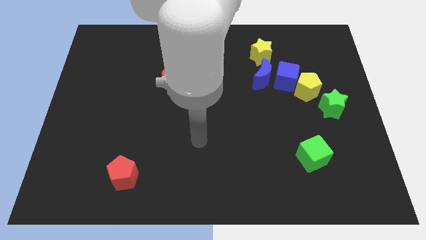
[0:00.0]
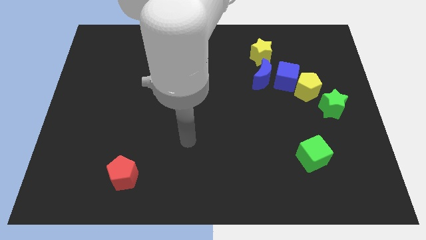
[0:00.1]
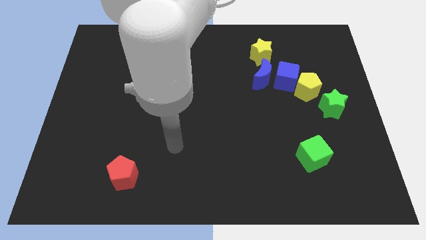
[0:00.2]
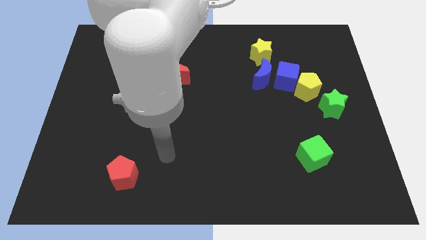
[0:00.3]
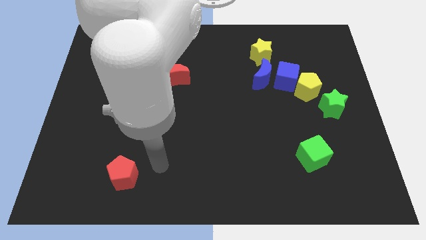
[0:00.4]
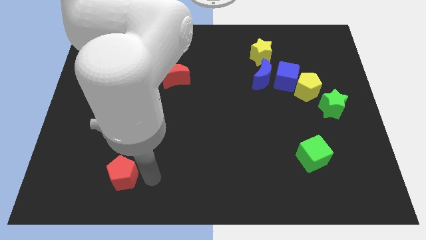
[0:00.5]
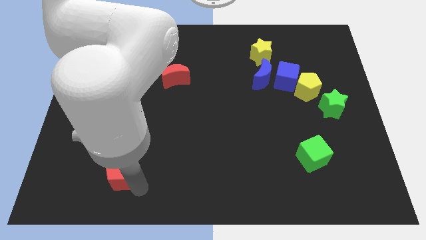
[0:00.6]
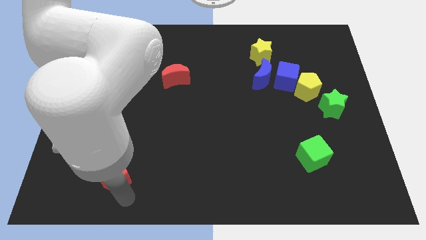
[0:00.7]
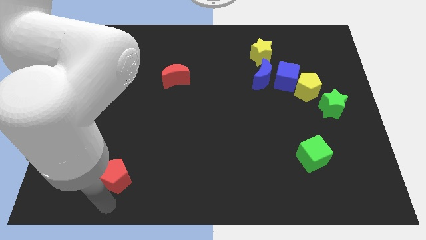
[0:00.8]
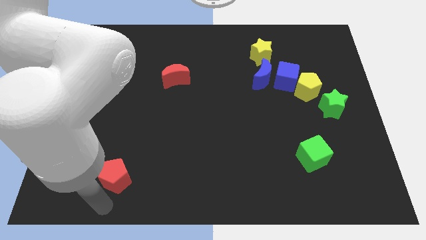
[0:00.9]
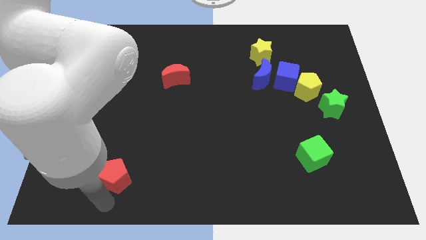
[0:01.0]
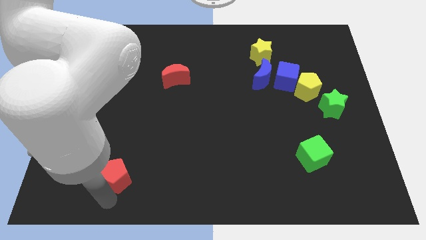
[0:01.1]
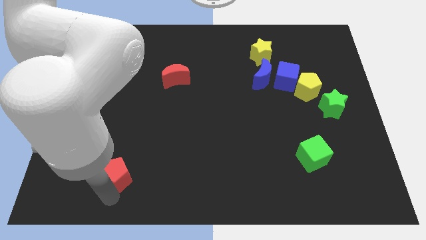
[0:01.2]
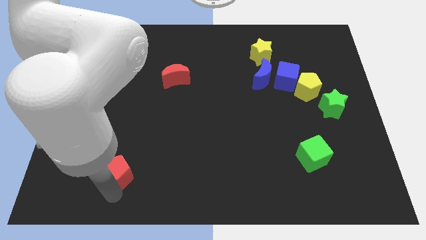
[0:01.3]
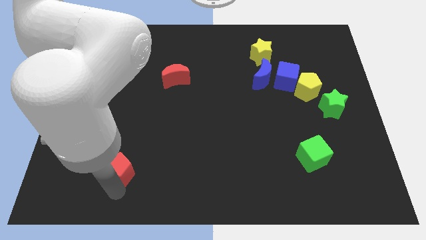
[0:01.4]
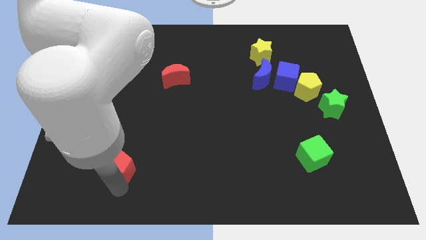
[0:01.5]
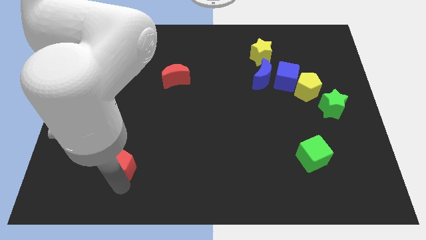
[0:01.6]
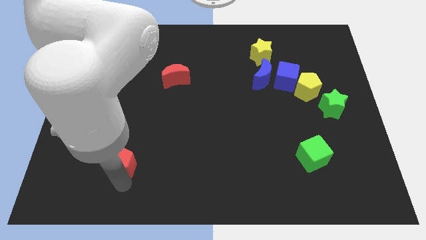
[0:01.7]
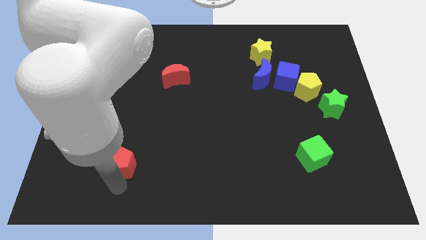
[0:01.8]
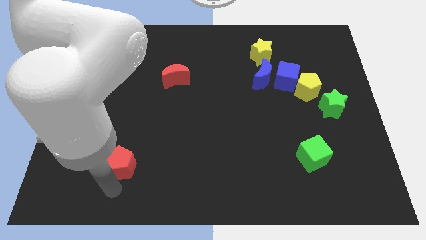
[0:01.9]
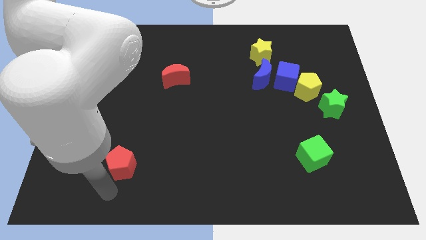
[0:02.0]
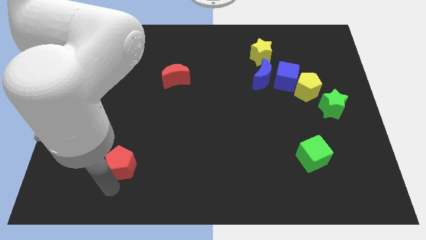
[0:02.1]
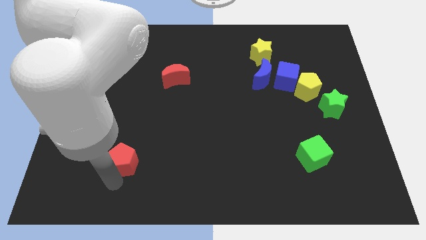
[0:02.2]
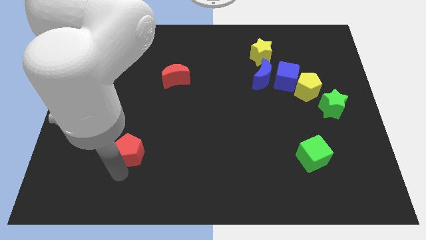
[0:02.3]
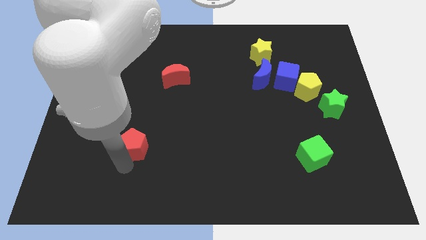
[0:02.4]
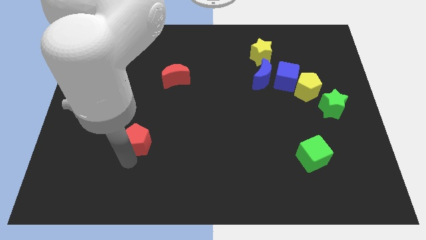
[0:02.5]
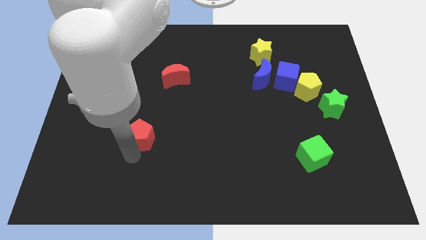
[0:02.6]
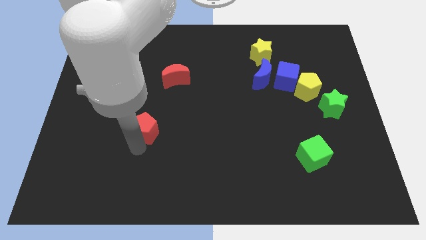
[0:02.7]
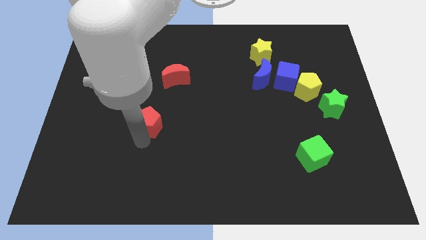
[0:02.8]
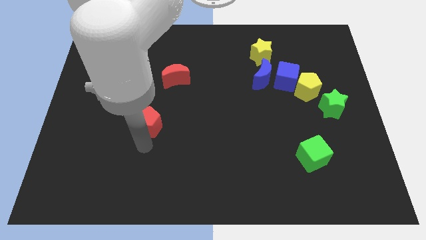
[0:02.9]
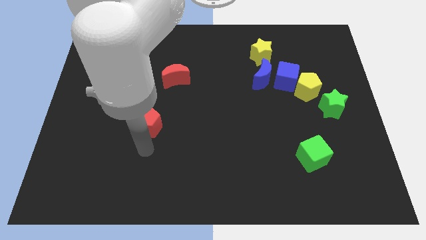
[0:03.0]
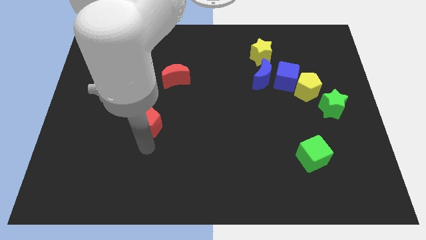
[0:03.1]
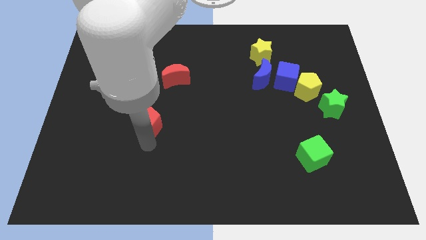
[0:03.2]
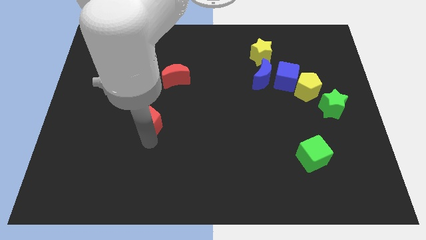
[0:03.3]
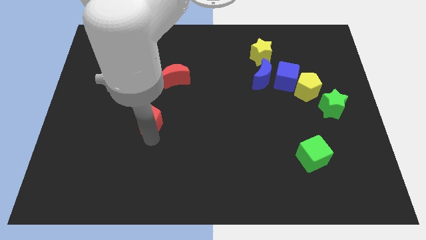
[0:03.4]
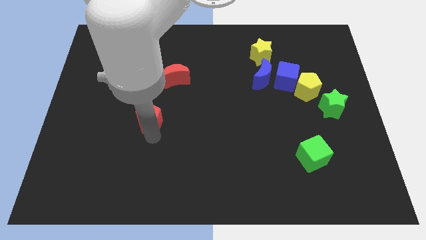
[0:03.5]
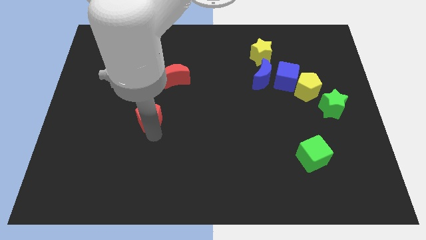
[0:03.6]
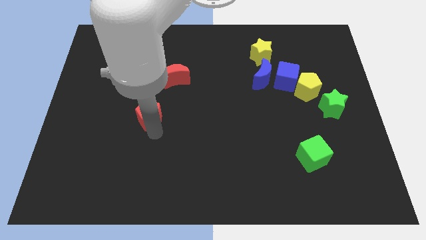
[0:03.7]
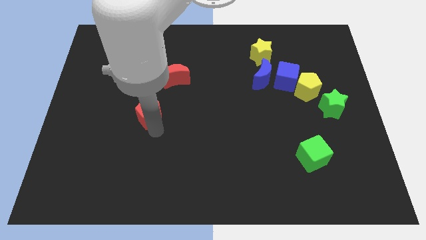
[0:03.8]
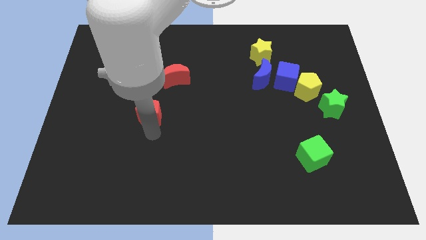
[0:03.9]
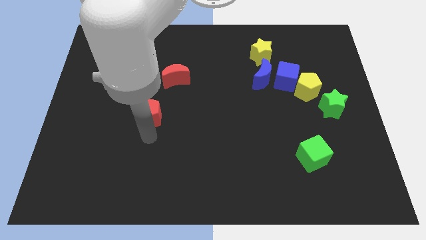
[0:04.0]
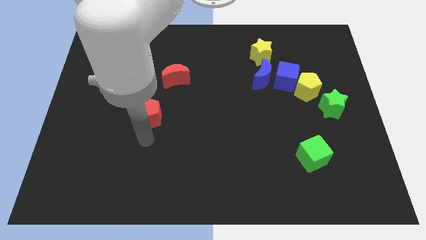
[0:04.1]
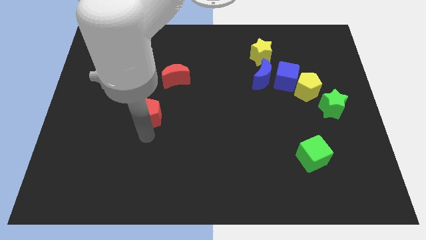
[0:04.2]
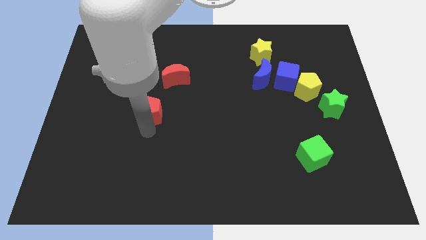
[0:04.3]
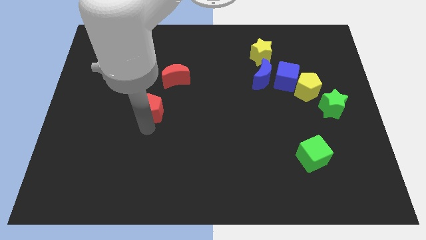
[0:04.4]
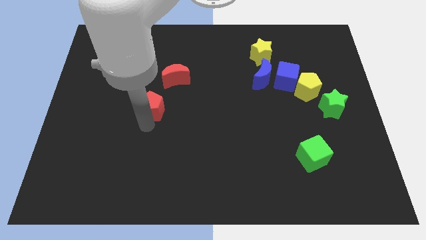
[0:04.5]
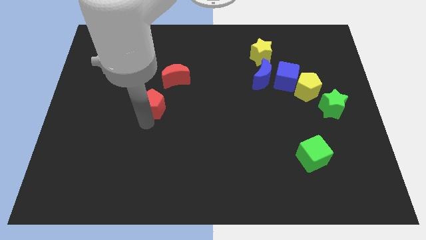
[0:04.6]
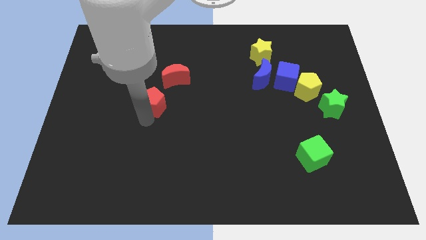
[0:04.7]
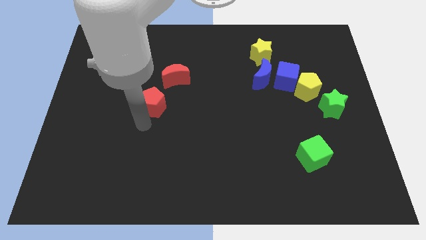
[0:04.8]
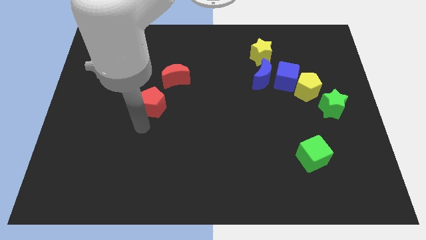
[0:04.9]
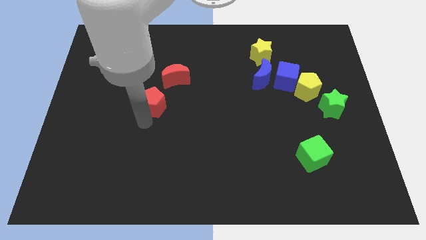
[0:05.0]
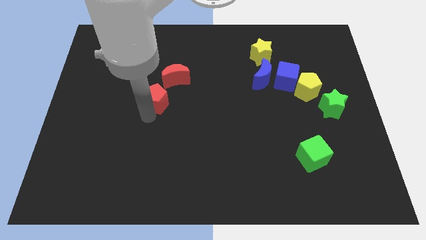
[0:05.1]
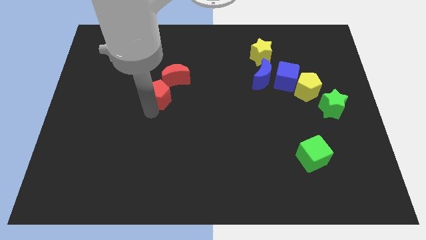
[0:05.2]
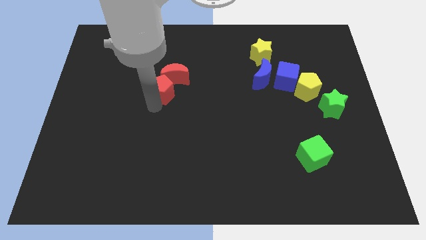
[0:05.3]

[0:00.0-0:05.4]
move the red pentagon close to the red moon

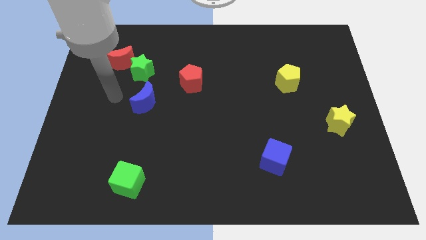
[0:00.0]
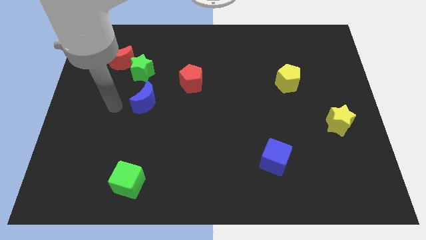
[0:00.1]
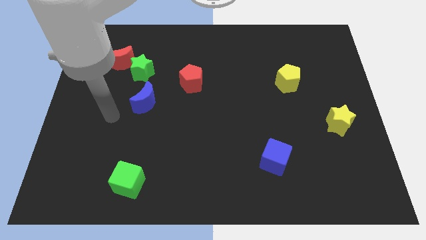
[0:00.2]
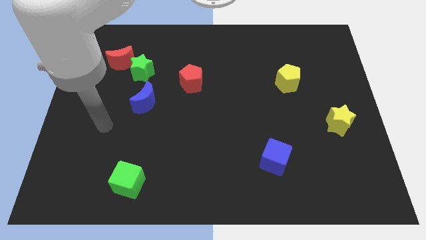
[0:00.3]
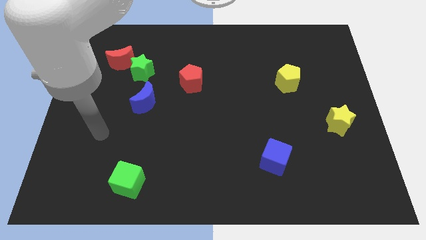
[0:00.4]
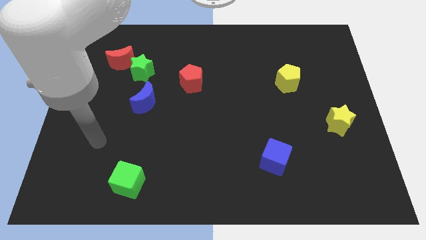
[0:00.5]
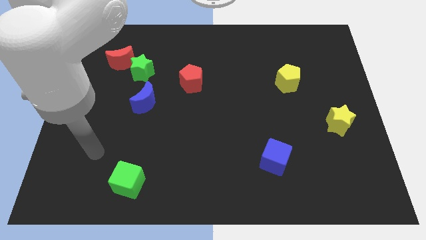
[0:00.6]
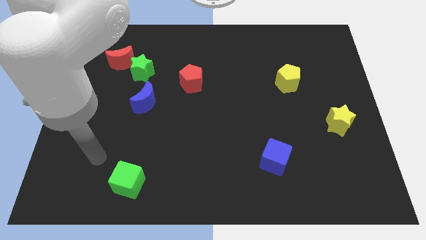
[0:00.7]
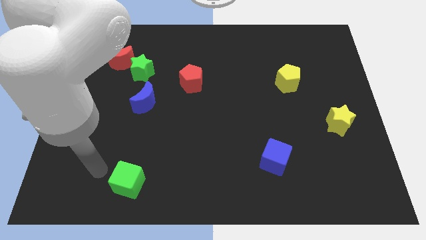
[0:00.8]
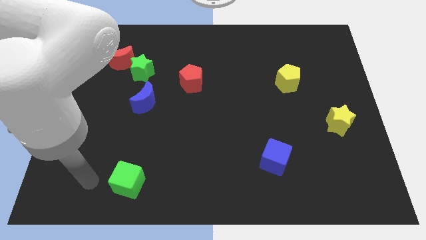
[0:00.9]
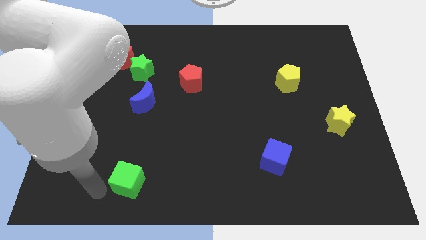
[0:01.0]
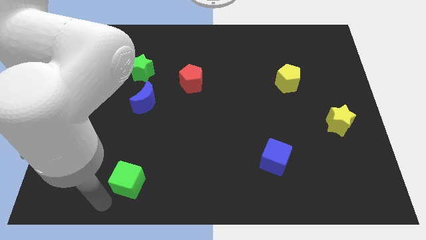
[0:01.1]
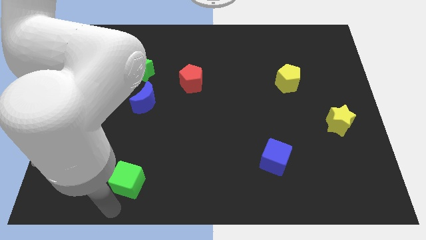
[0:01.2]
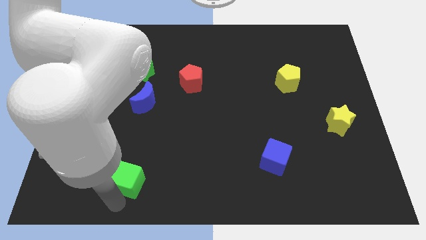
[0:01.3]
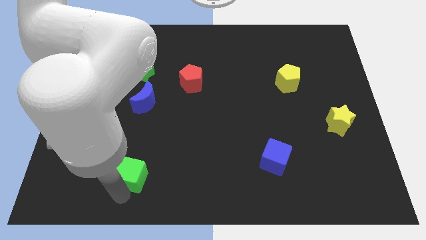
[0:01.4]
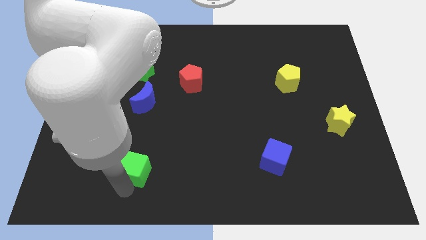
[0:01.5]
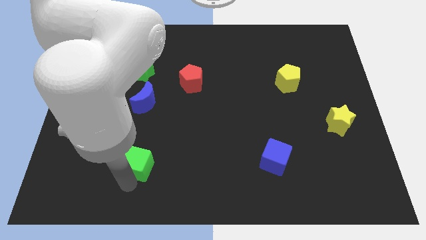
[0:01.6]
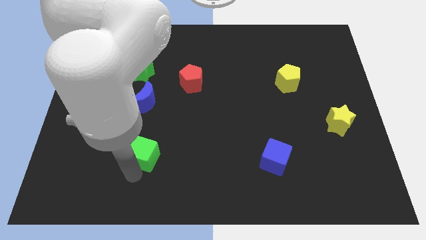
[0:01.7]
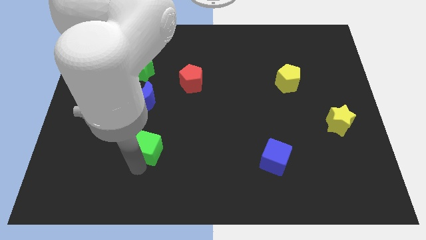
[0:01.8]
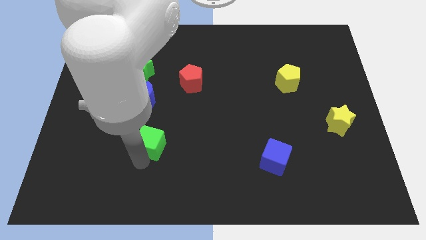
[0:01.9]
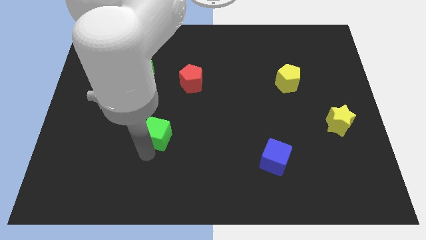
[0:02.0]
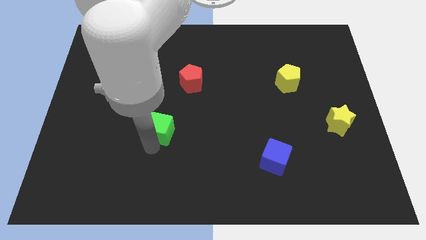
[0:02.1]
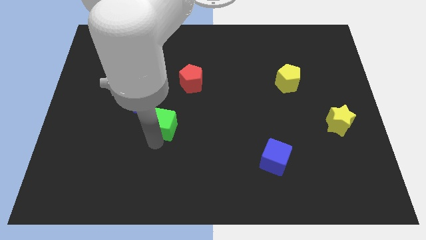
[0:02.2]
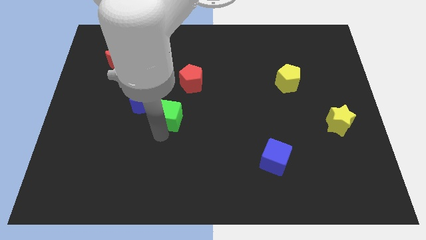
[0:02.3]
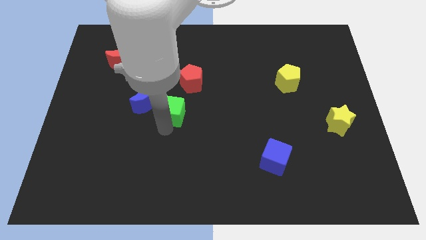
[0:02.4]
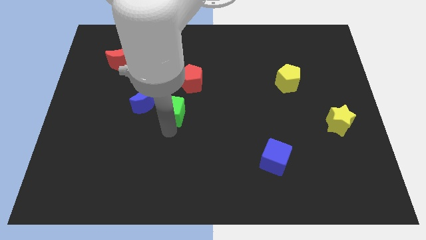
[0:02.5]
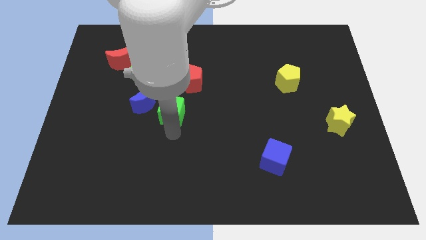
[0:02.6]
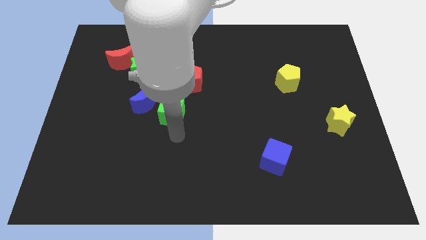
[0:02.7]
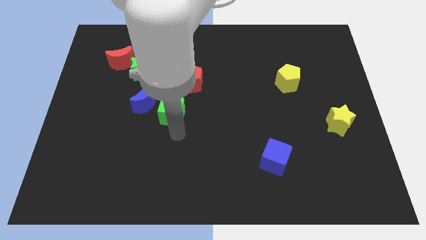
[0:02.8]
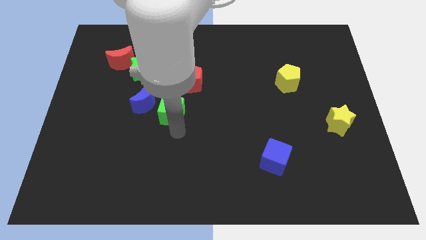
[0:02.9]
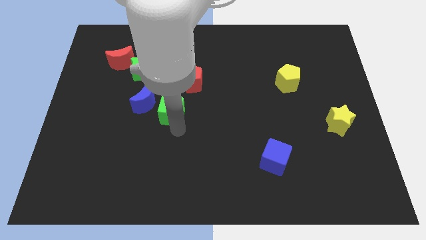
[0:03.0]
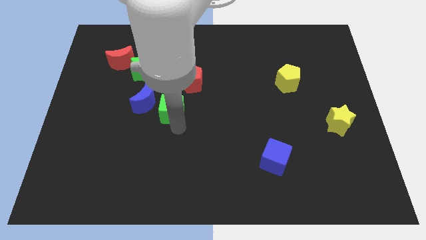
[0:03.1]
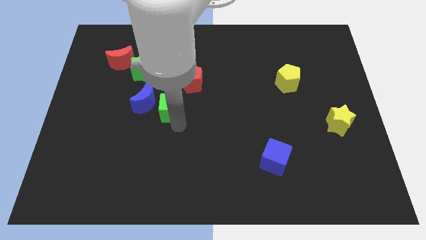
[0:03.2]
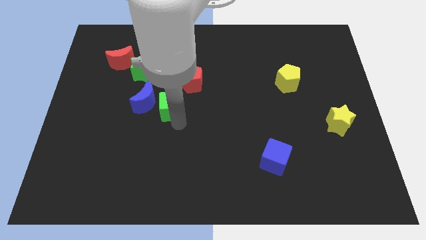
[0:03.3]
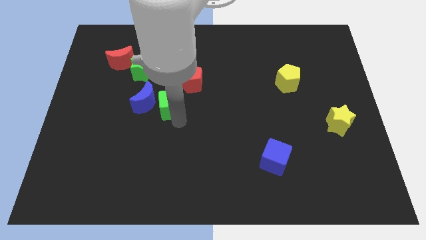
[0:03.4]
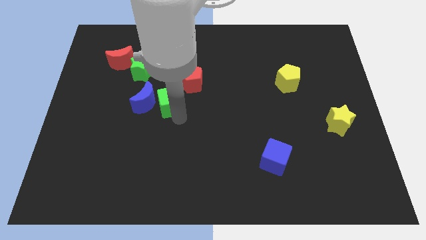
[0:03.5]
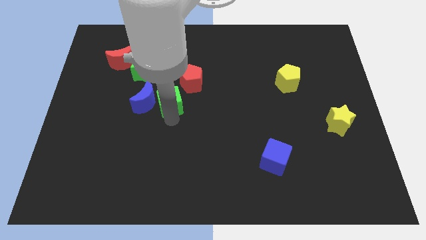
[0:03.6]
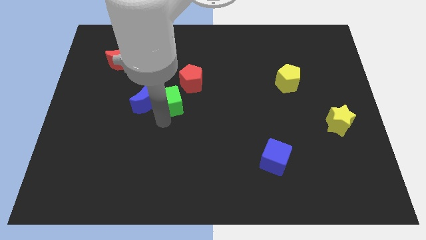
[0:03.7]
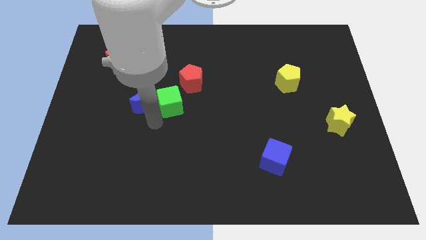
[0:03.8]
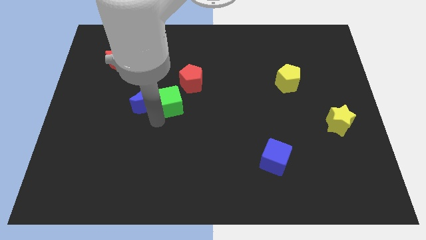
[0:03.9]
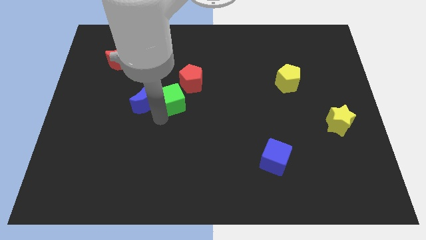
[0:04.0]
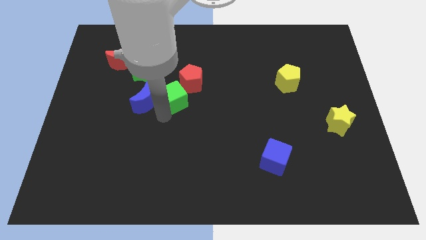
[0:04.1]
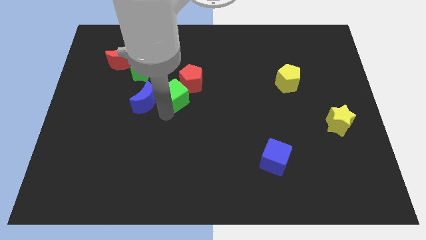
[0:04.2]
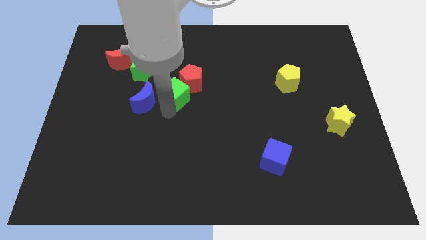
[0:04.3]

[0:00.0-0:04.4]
put the green cube towards the red pentagon
